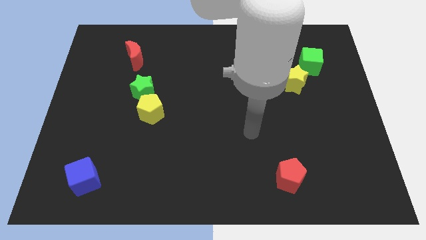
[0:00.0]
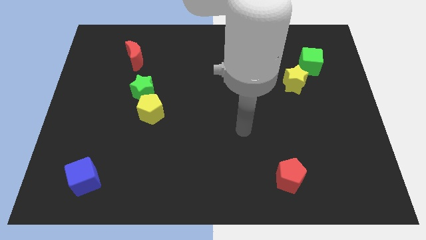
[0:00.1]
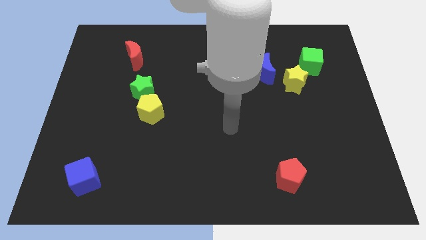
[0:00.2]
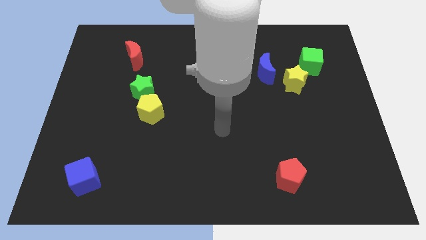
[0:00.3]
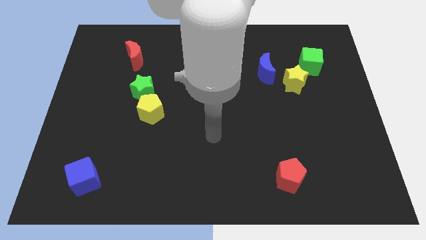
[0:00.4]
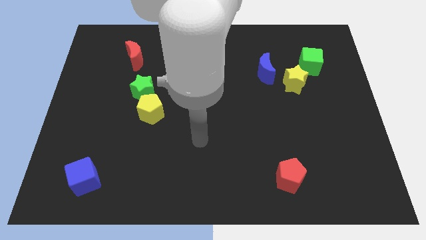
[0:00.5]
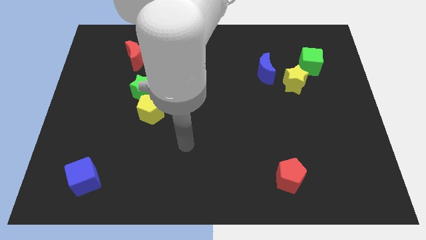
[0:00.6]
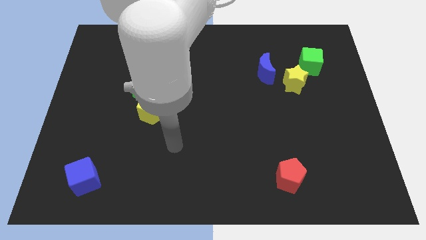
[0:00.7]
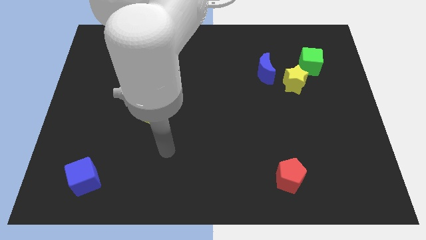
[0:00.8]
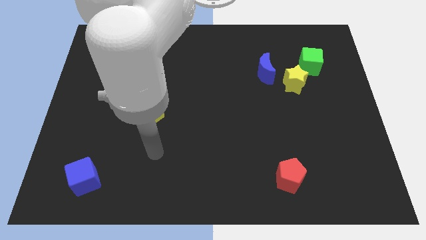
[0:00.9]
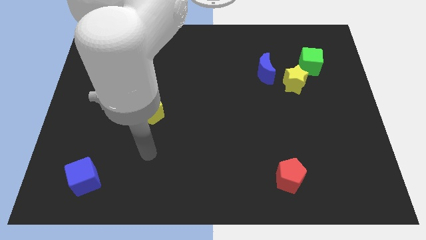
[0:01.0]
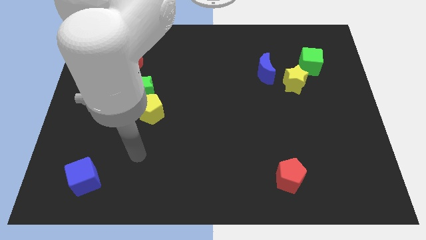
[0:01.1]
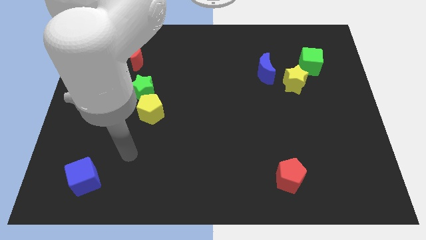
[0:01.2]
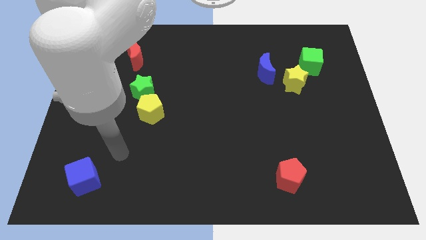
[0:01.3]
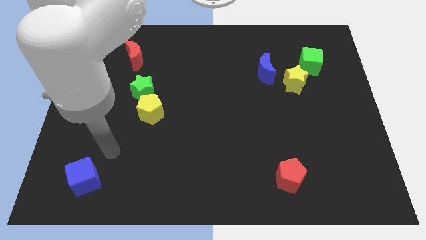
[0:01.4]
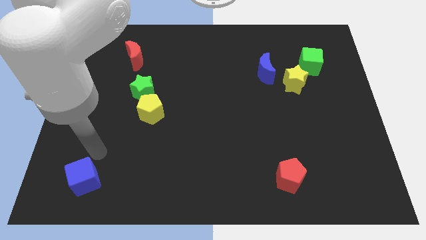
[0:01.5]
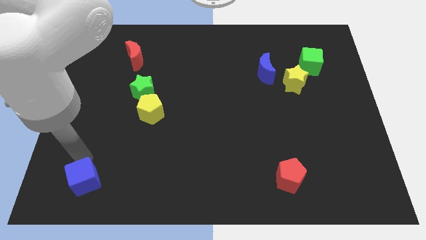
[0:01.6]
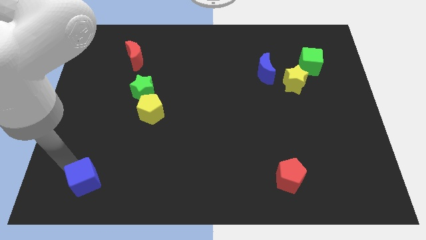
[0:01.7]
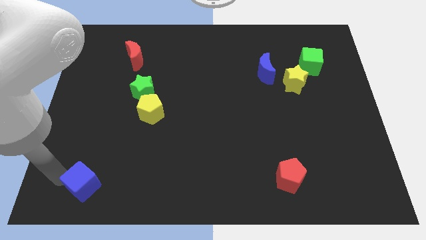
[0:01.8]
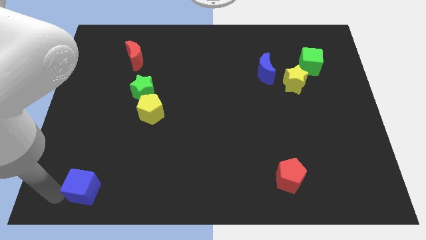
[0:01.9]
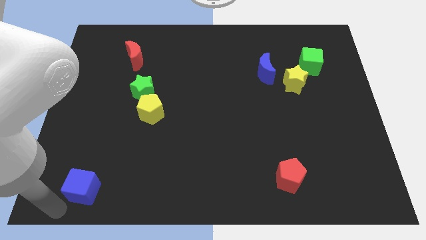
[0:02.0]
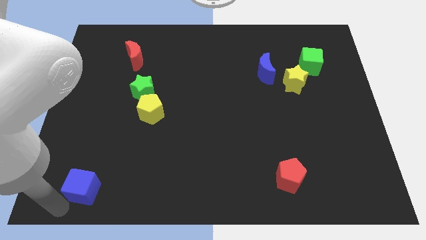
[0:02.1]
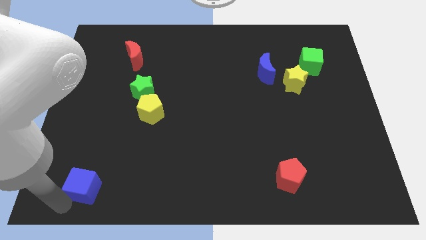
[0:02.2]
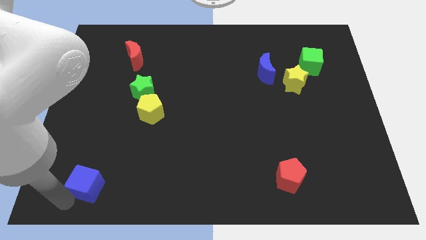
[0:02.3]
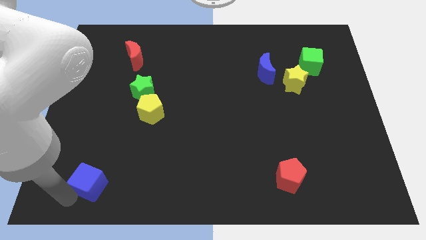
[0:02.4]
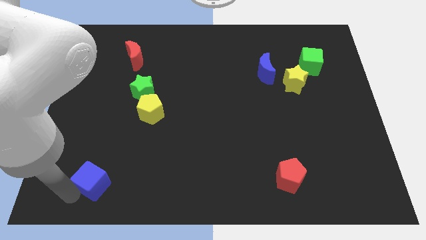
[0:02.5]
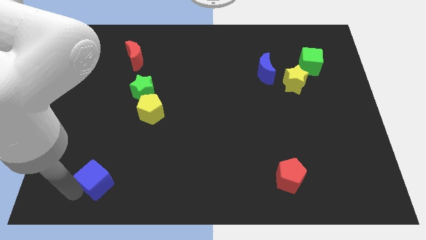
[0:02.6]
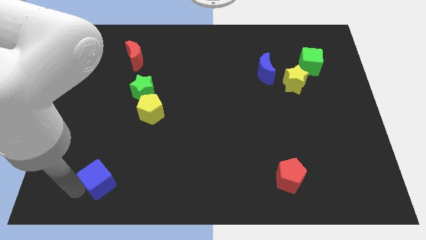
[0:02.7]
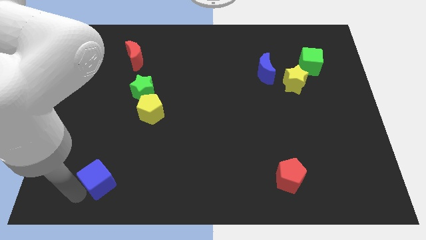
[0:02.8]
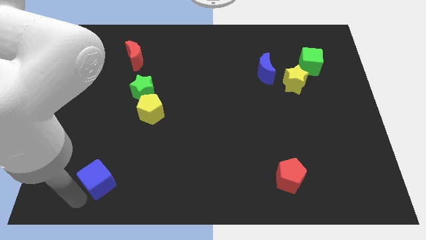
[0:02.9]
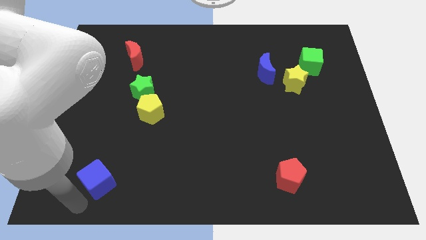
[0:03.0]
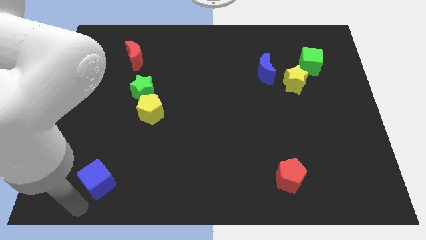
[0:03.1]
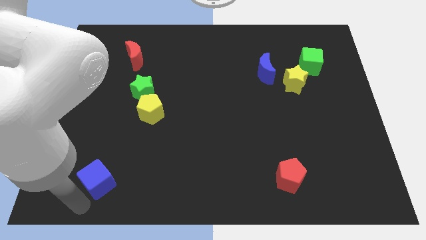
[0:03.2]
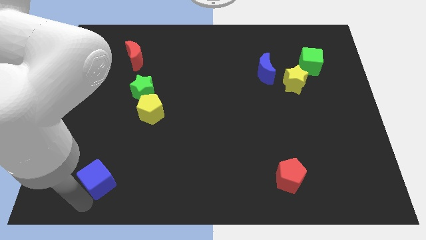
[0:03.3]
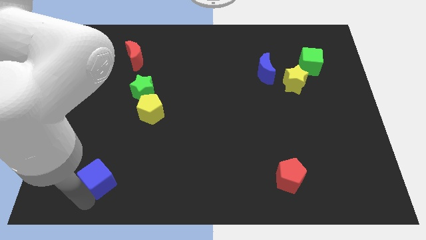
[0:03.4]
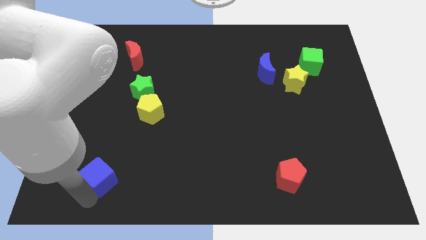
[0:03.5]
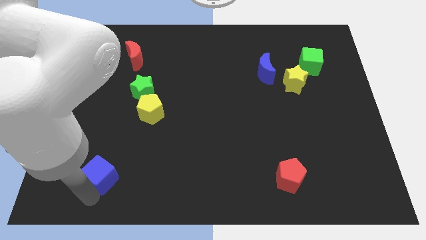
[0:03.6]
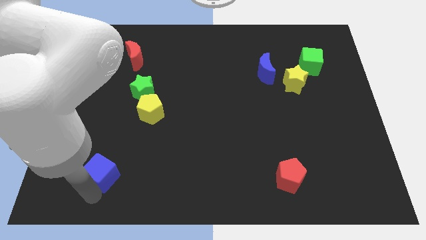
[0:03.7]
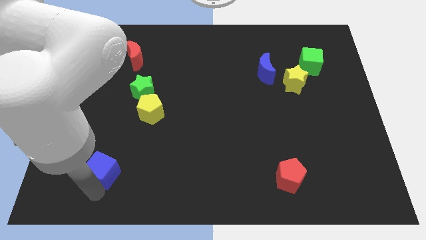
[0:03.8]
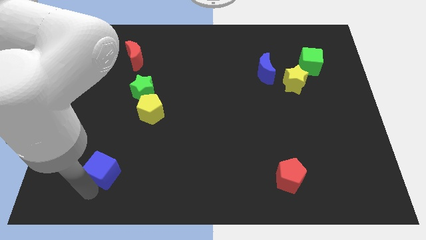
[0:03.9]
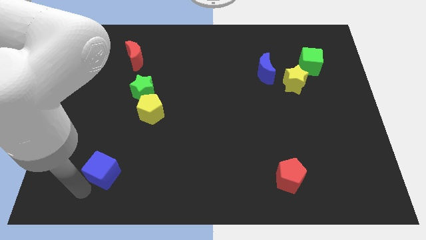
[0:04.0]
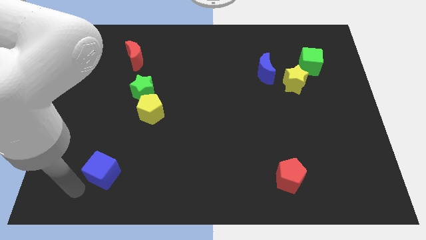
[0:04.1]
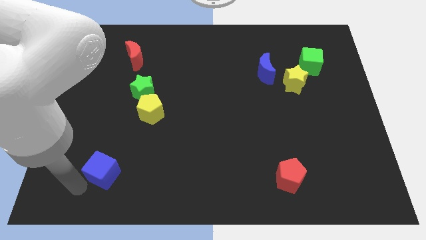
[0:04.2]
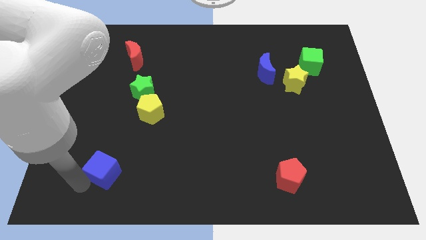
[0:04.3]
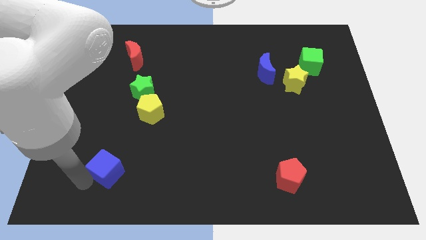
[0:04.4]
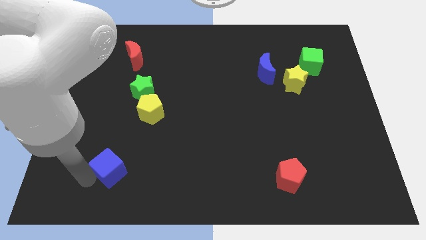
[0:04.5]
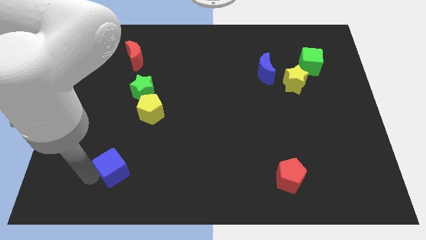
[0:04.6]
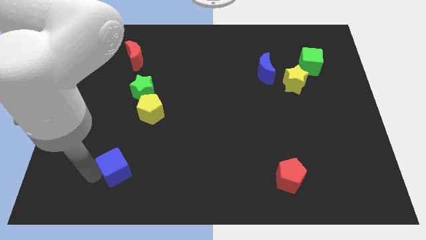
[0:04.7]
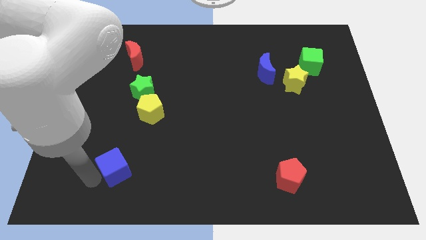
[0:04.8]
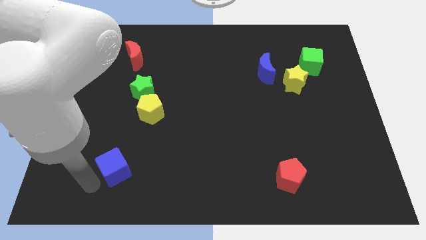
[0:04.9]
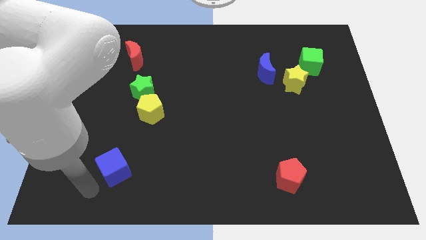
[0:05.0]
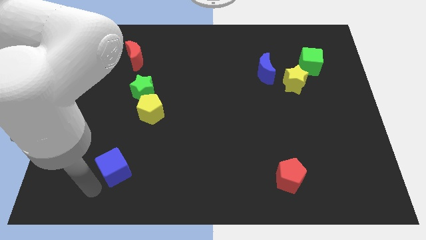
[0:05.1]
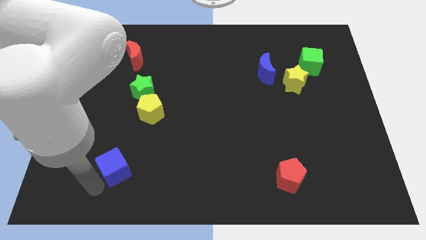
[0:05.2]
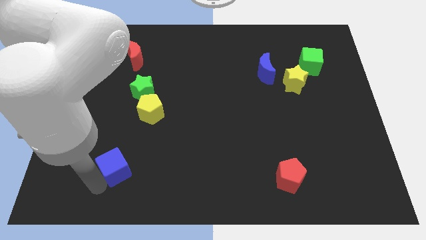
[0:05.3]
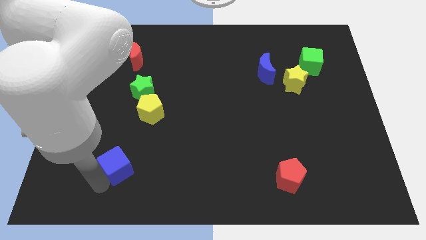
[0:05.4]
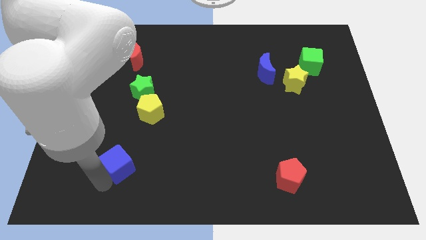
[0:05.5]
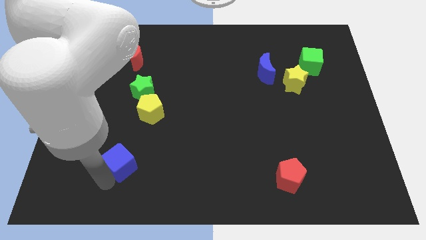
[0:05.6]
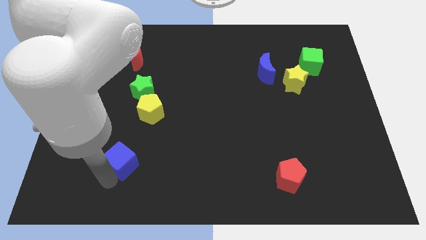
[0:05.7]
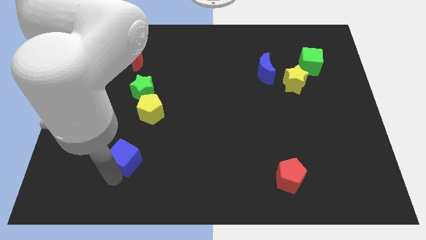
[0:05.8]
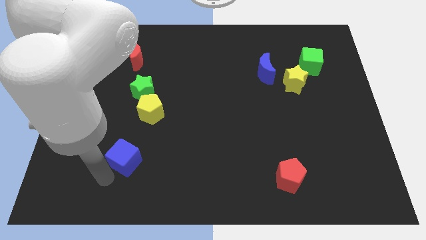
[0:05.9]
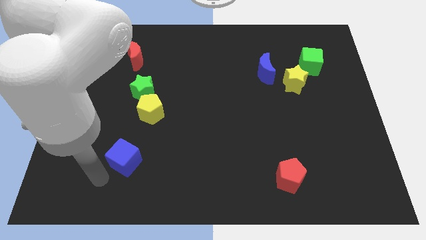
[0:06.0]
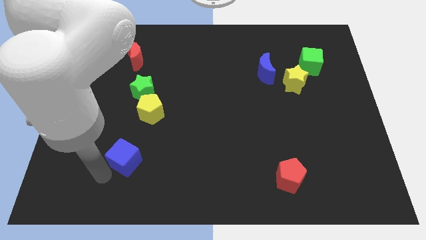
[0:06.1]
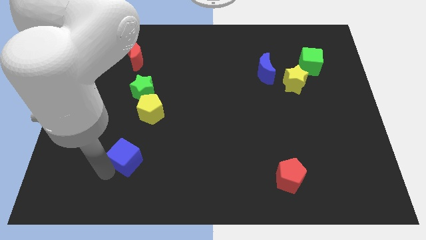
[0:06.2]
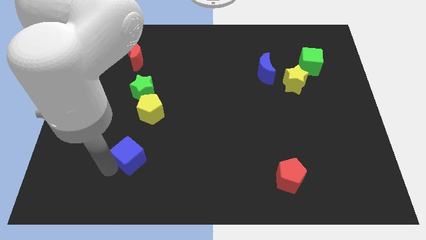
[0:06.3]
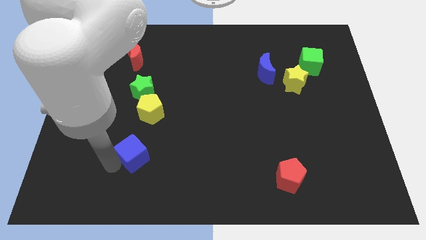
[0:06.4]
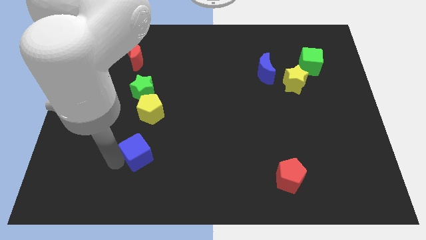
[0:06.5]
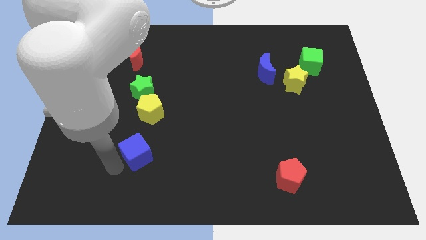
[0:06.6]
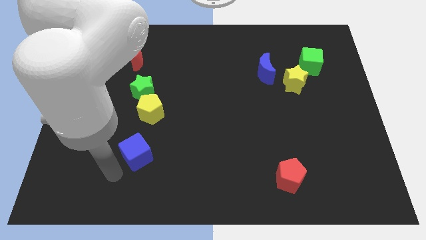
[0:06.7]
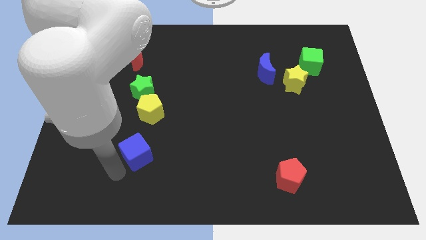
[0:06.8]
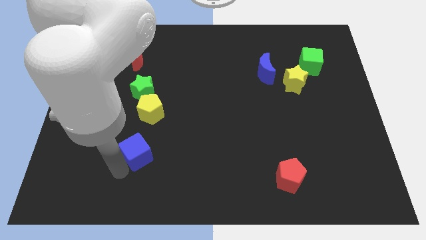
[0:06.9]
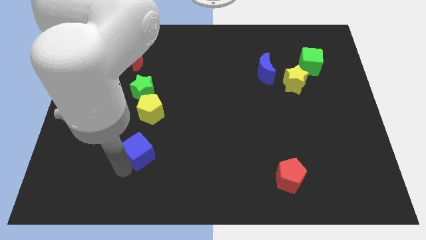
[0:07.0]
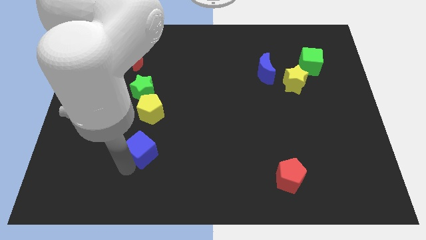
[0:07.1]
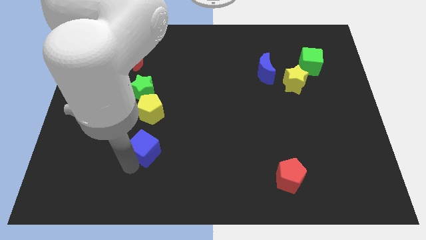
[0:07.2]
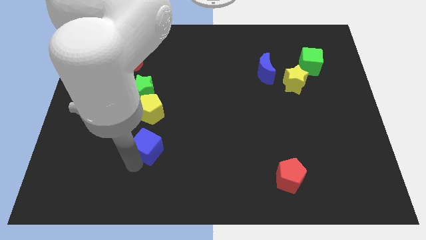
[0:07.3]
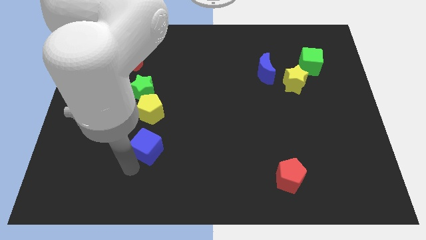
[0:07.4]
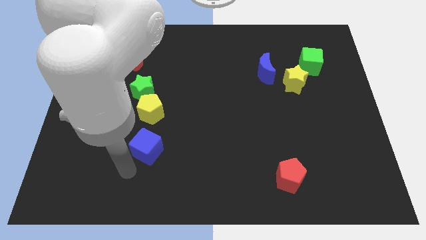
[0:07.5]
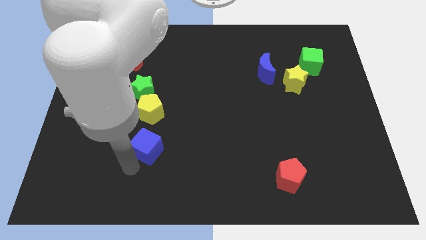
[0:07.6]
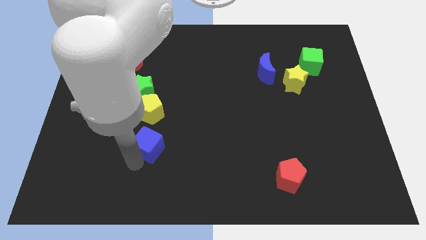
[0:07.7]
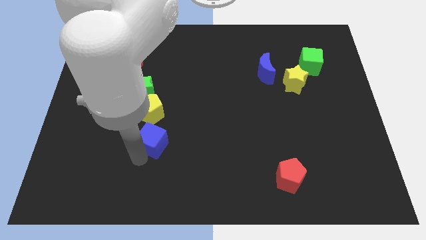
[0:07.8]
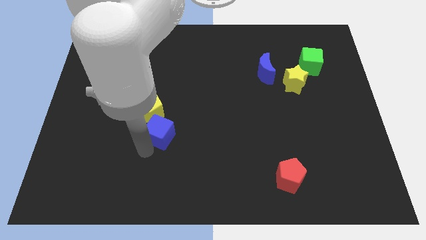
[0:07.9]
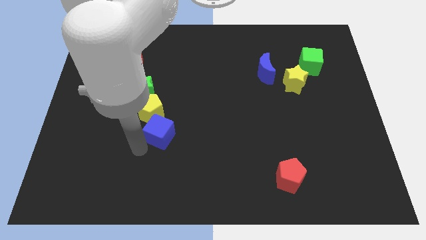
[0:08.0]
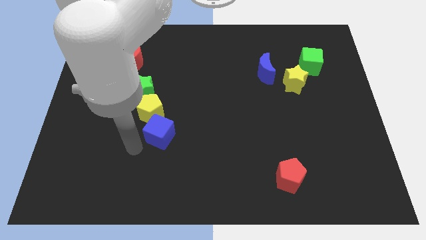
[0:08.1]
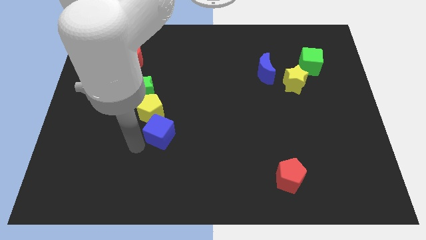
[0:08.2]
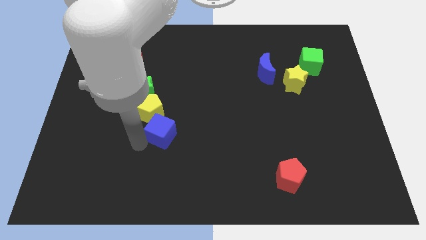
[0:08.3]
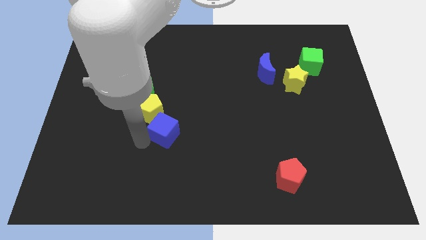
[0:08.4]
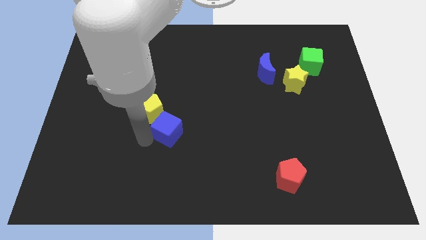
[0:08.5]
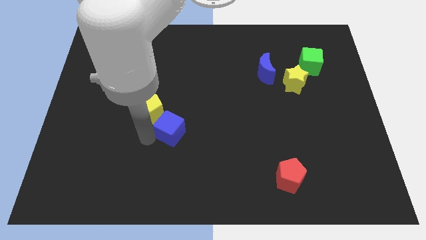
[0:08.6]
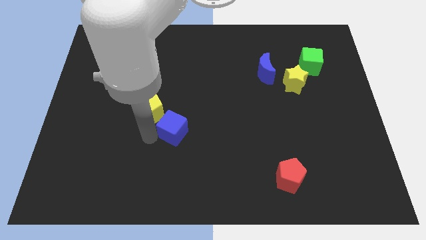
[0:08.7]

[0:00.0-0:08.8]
slide the blue cube to the middle
